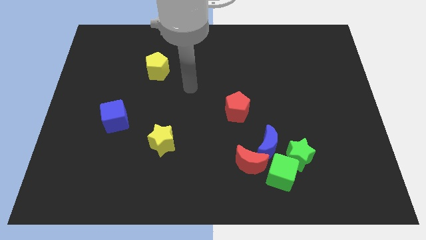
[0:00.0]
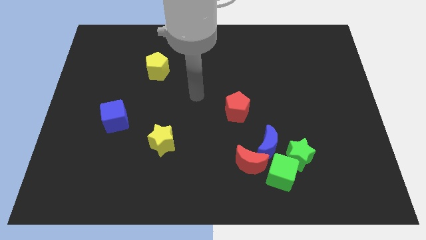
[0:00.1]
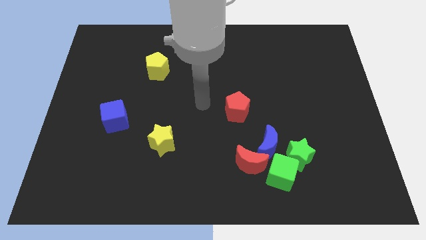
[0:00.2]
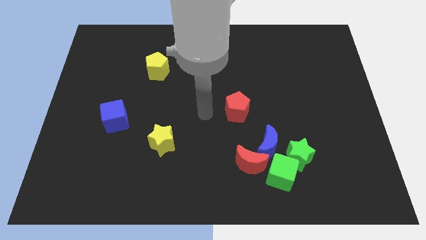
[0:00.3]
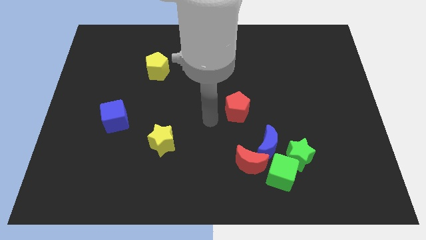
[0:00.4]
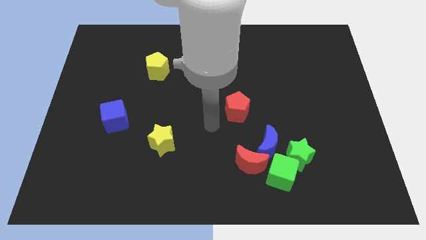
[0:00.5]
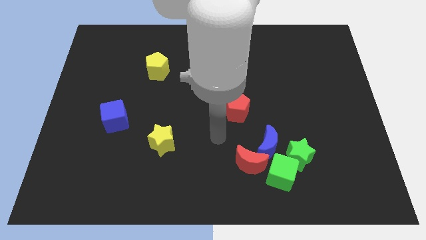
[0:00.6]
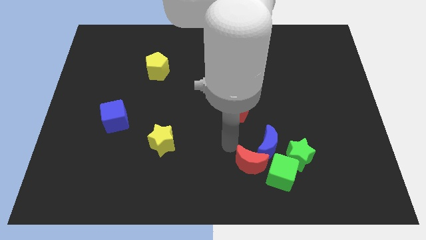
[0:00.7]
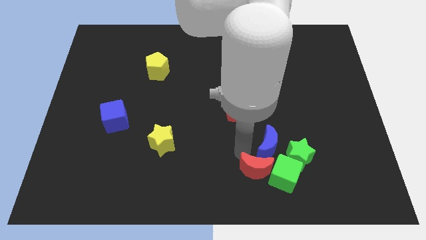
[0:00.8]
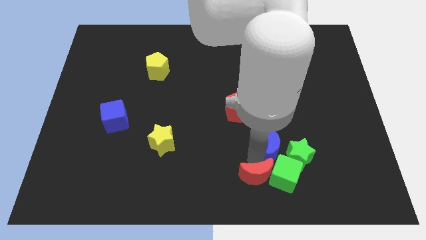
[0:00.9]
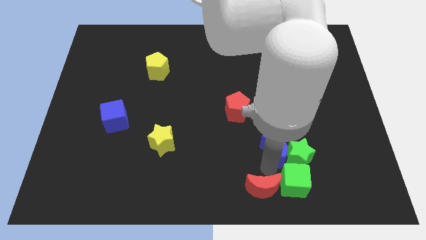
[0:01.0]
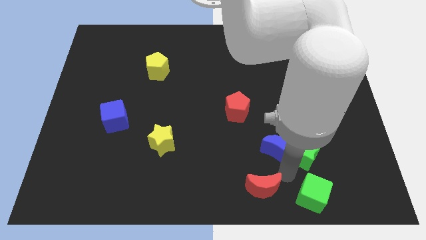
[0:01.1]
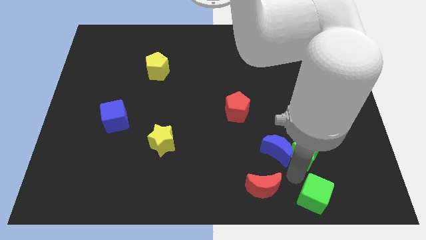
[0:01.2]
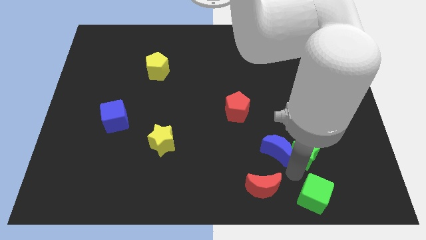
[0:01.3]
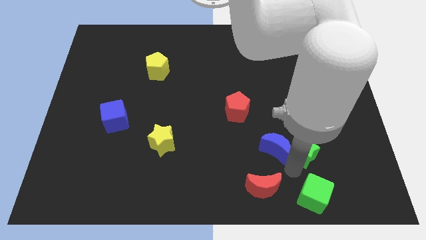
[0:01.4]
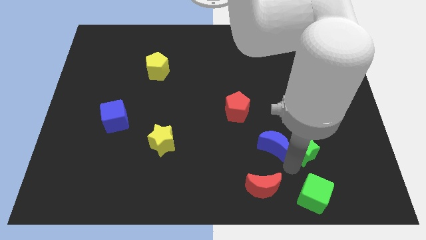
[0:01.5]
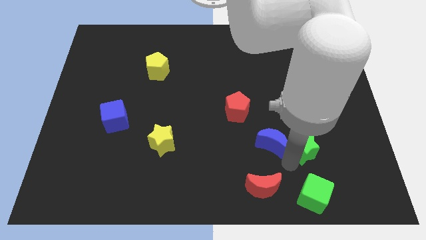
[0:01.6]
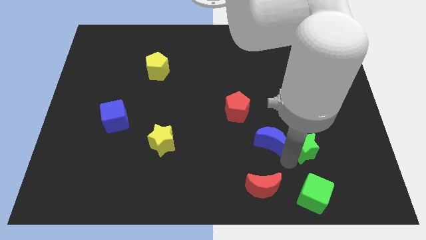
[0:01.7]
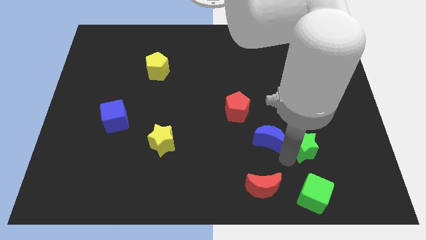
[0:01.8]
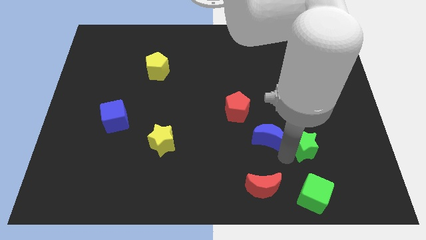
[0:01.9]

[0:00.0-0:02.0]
move the blue moon away from the red moon, green star, and green cube

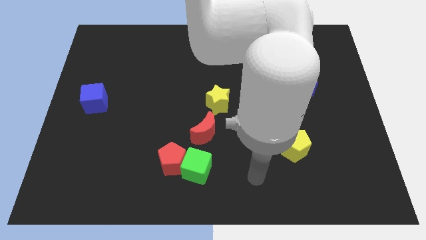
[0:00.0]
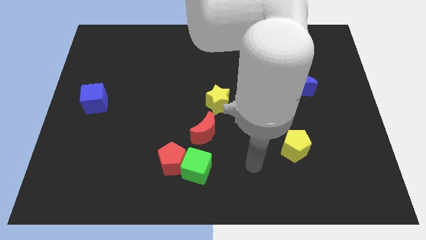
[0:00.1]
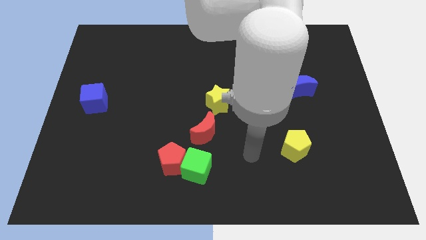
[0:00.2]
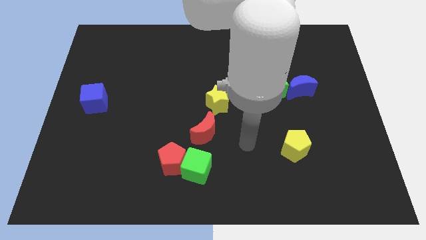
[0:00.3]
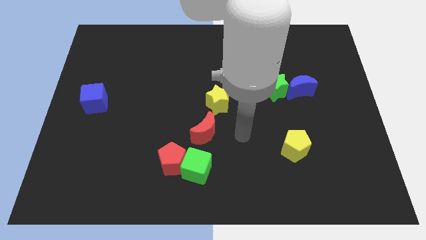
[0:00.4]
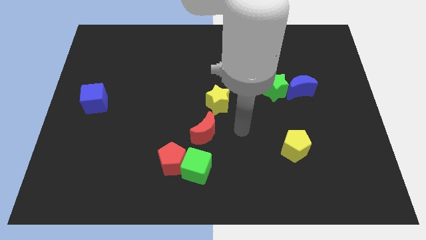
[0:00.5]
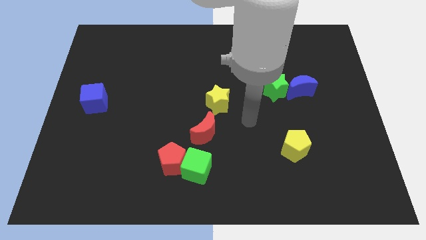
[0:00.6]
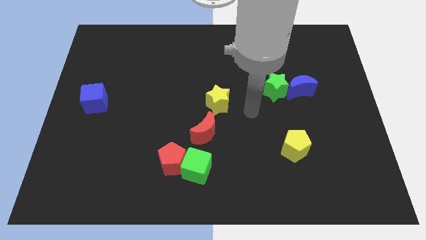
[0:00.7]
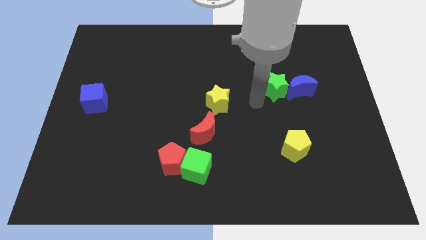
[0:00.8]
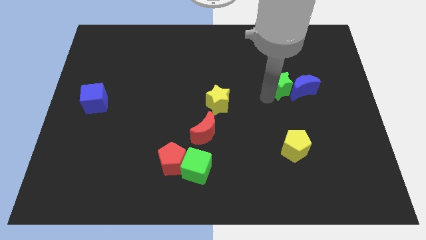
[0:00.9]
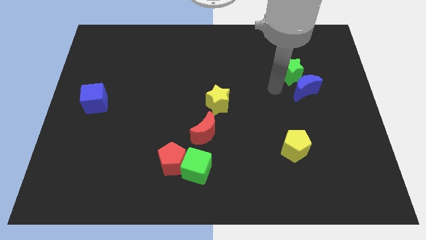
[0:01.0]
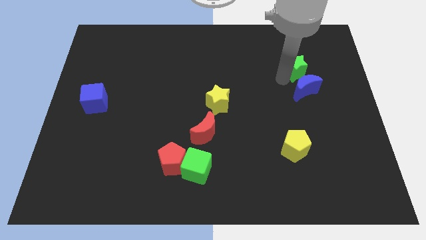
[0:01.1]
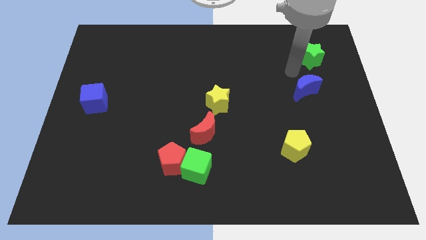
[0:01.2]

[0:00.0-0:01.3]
move the blue moon away from the green star

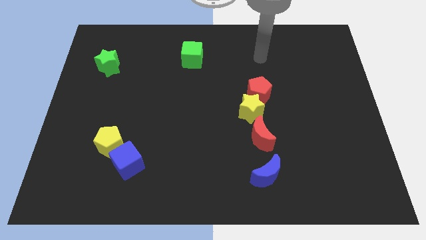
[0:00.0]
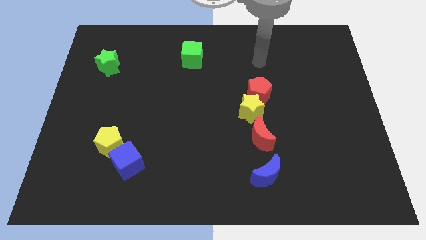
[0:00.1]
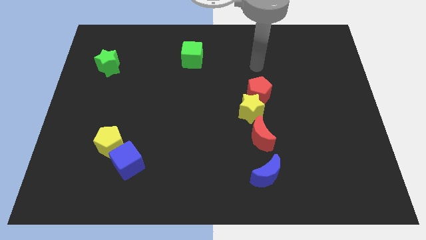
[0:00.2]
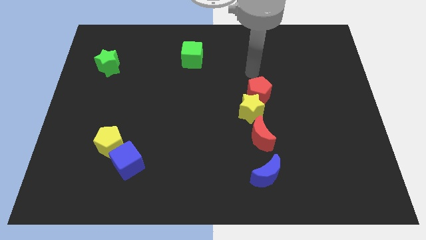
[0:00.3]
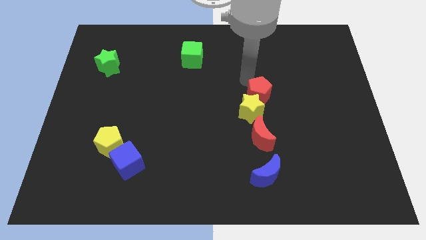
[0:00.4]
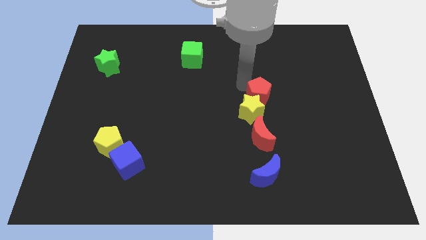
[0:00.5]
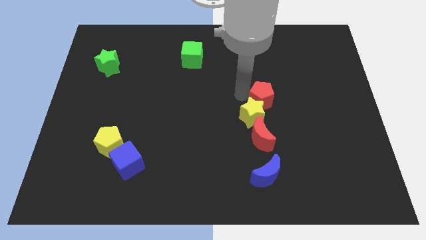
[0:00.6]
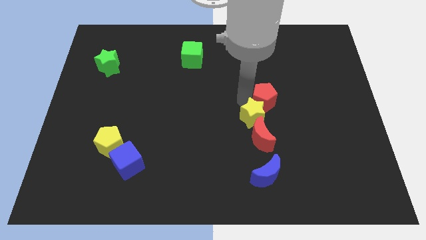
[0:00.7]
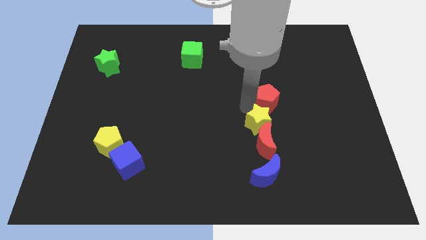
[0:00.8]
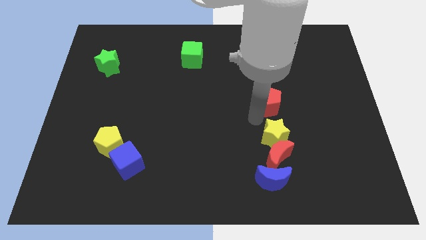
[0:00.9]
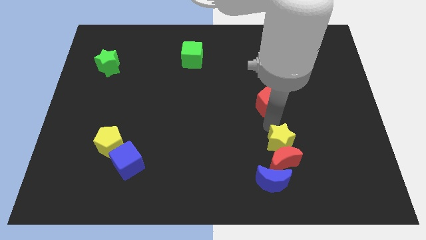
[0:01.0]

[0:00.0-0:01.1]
pull the red pentagon apart from the yellow star

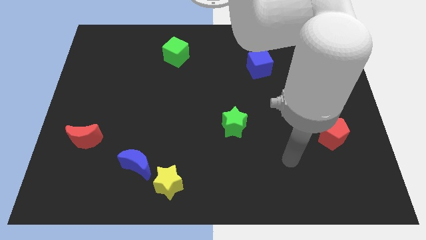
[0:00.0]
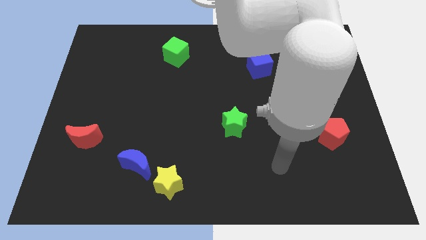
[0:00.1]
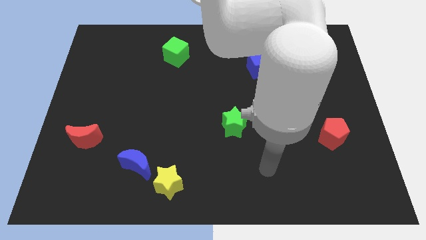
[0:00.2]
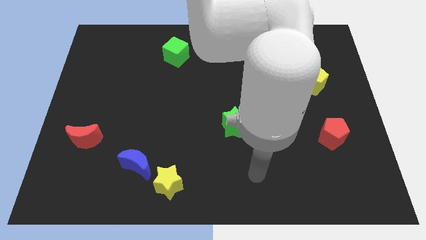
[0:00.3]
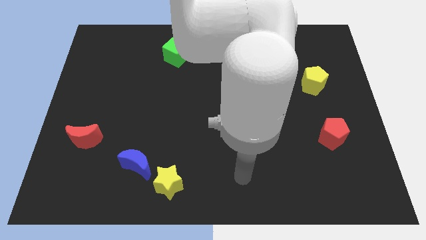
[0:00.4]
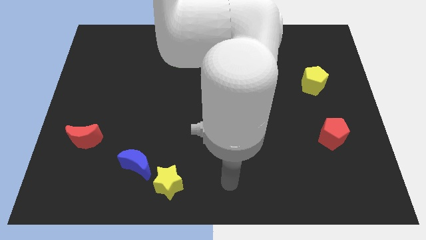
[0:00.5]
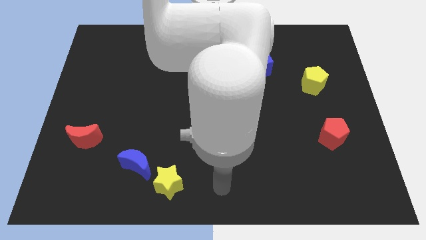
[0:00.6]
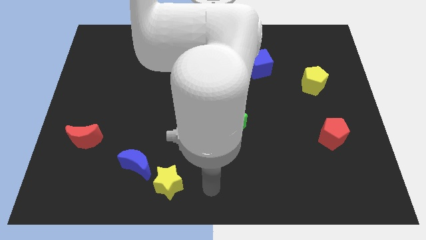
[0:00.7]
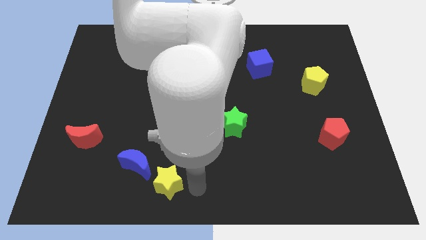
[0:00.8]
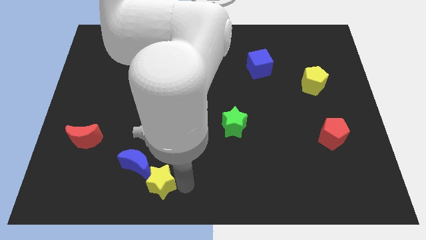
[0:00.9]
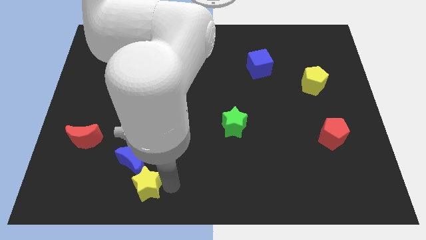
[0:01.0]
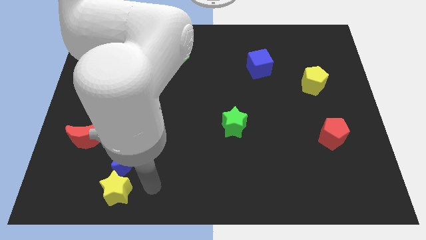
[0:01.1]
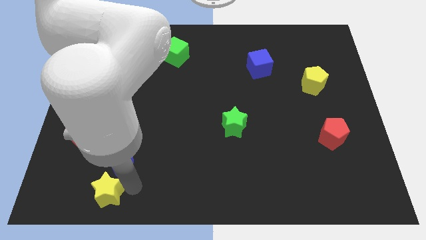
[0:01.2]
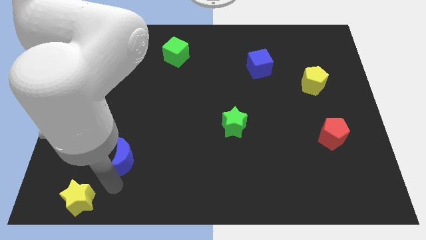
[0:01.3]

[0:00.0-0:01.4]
move the blue moon away from the yellow star

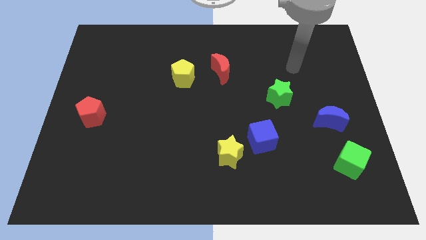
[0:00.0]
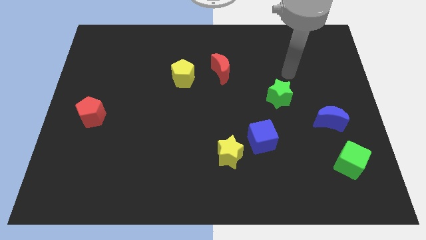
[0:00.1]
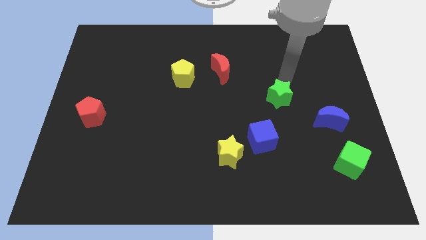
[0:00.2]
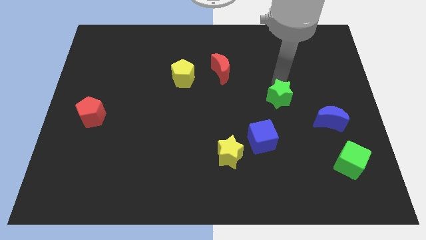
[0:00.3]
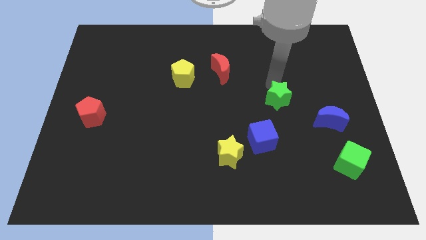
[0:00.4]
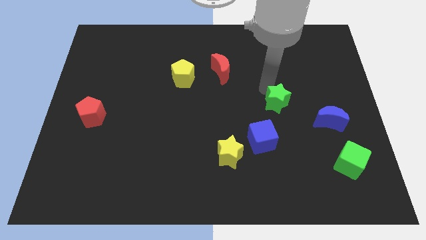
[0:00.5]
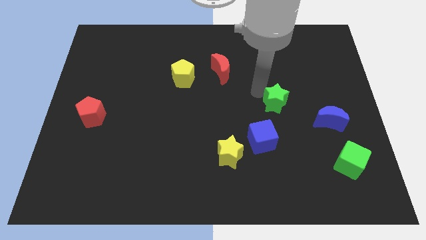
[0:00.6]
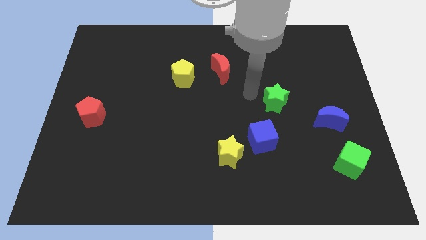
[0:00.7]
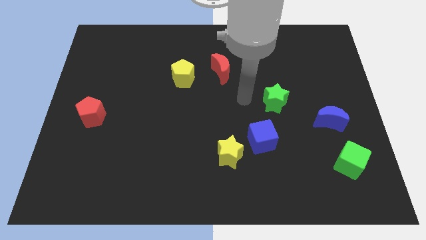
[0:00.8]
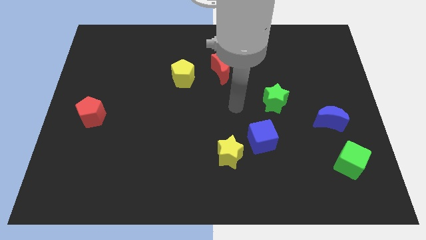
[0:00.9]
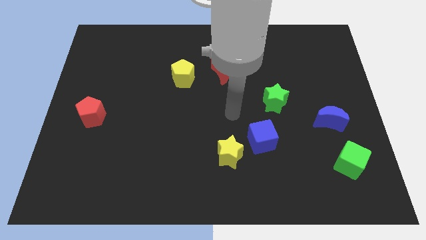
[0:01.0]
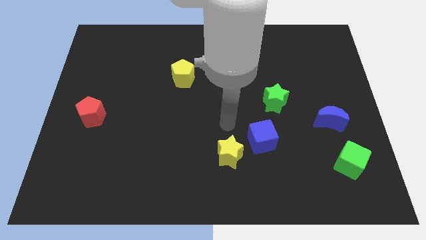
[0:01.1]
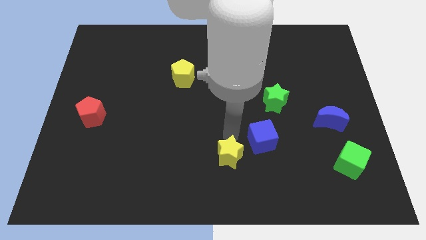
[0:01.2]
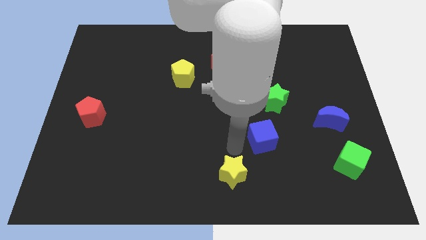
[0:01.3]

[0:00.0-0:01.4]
separate the blue cube from the yellow star

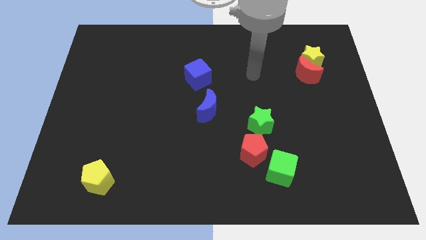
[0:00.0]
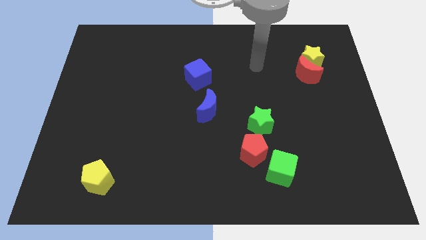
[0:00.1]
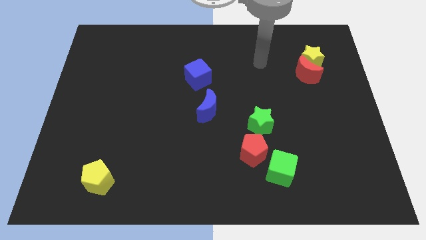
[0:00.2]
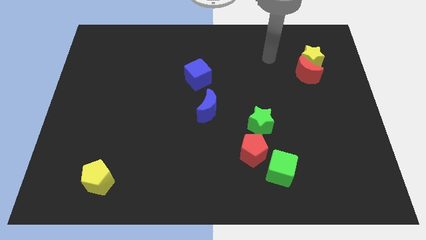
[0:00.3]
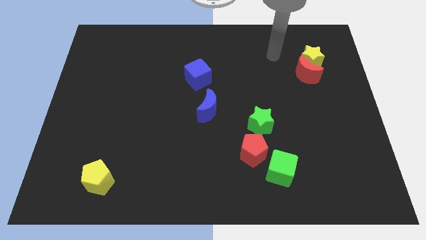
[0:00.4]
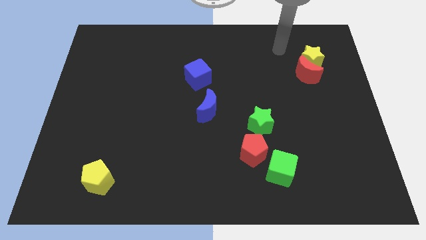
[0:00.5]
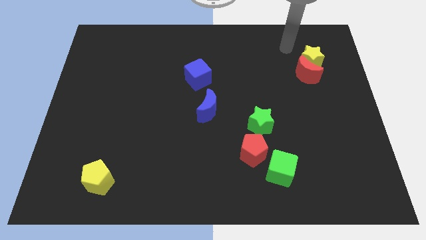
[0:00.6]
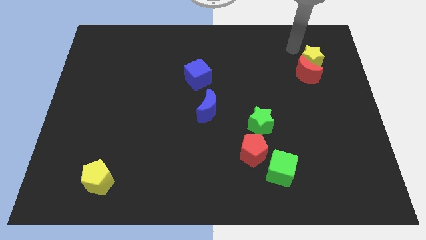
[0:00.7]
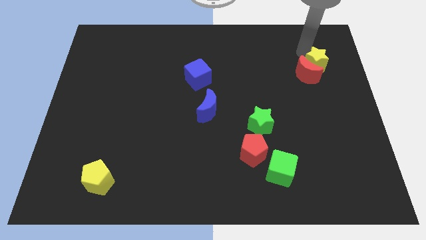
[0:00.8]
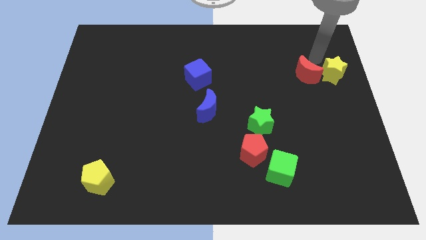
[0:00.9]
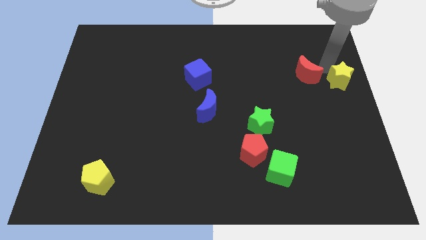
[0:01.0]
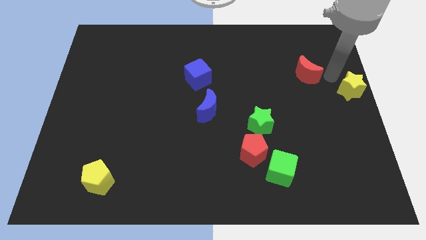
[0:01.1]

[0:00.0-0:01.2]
pull the red moon apart from the yellow star

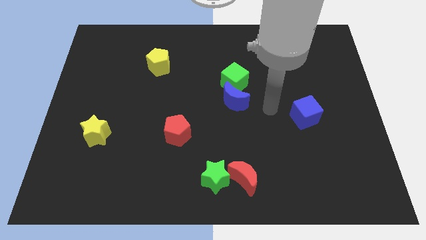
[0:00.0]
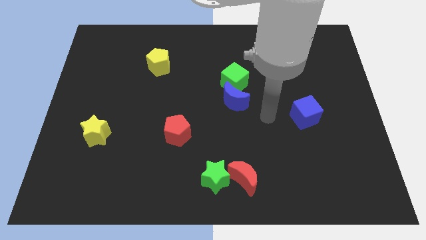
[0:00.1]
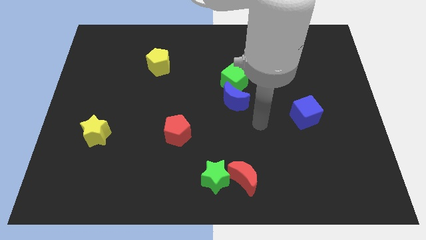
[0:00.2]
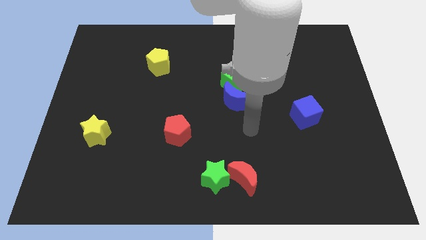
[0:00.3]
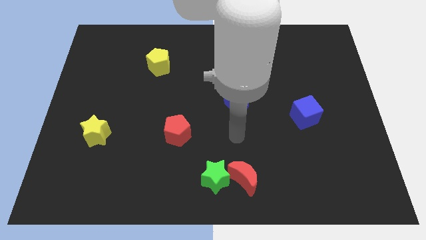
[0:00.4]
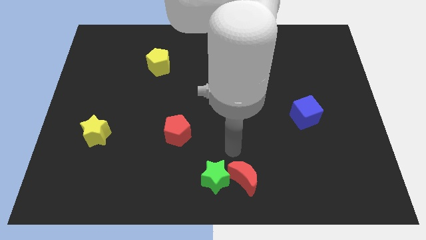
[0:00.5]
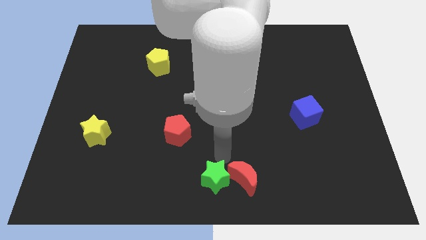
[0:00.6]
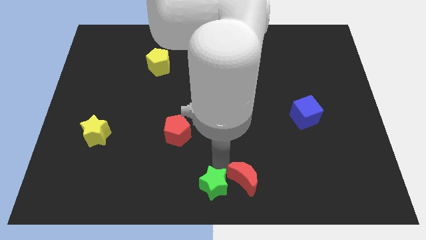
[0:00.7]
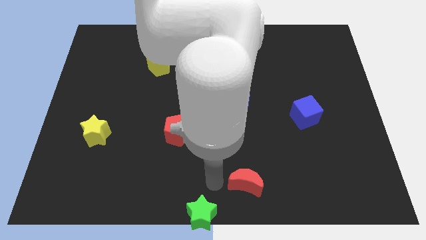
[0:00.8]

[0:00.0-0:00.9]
pull the red moon apart from the green star
